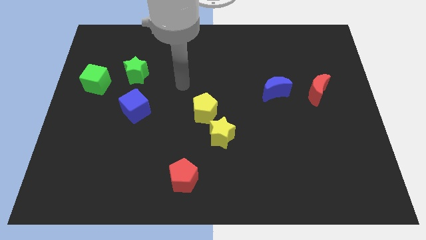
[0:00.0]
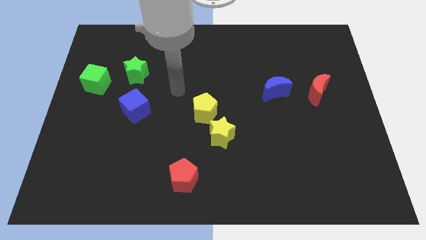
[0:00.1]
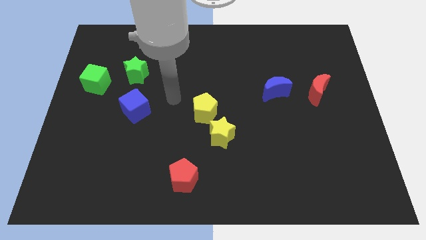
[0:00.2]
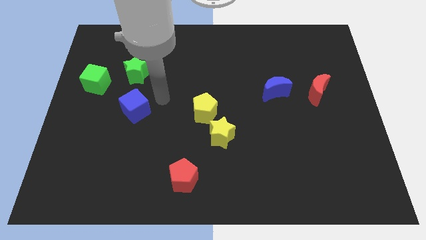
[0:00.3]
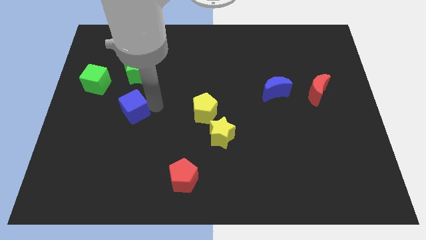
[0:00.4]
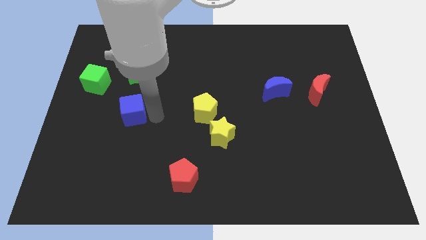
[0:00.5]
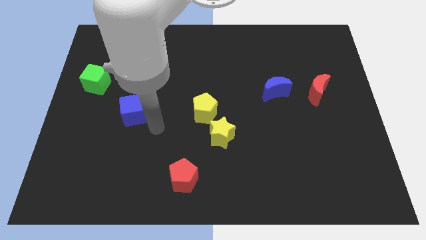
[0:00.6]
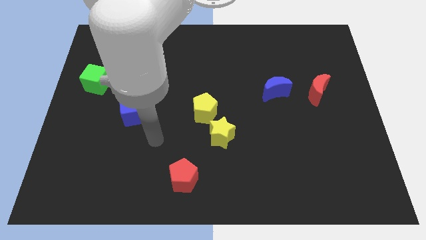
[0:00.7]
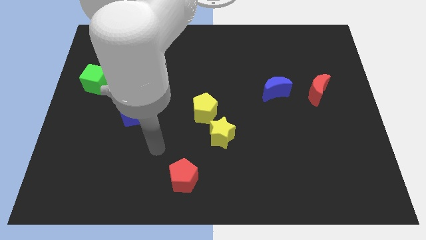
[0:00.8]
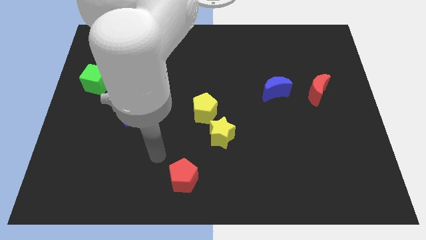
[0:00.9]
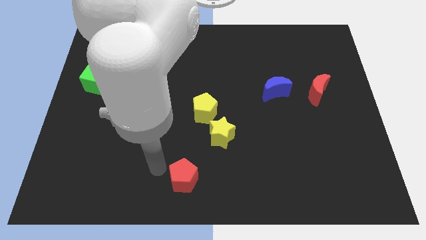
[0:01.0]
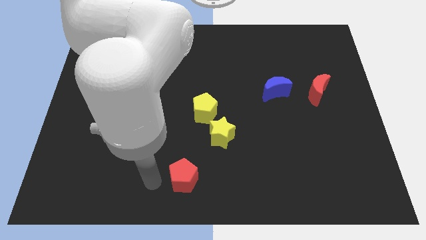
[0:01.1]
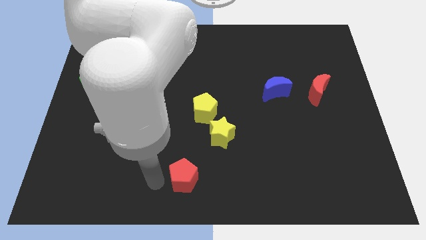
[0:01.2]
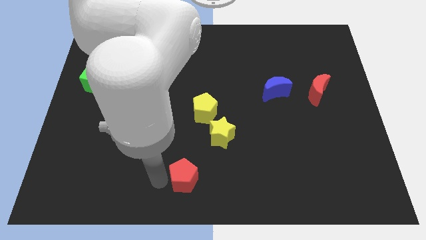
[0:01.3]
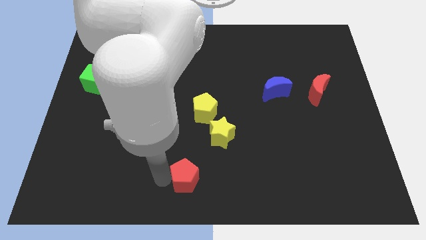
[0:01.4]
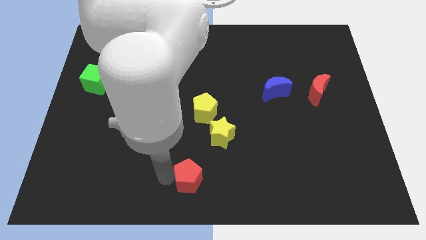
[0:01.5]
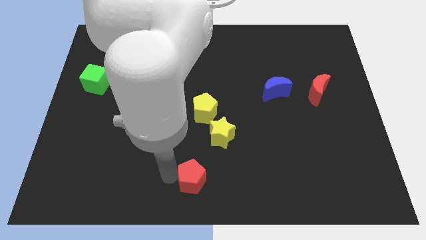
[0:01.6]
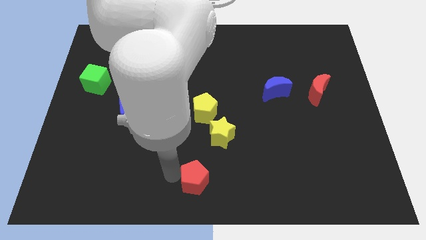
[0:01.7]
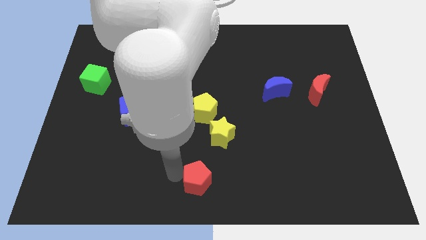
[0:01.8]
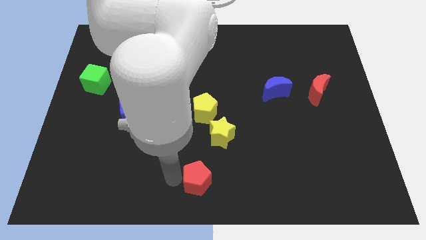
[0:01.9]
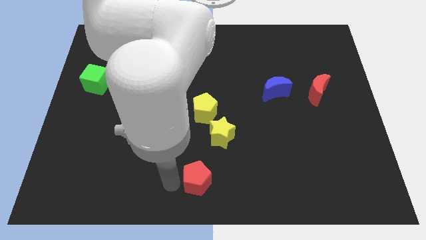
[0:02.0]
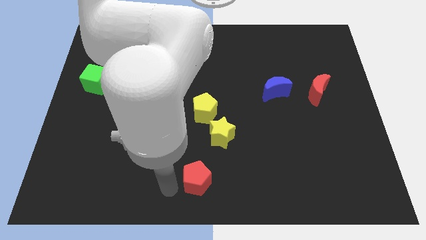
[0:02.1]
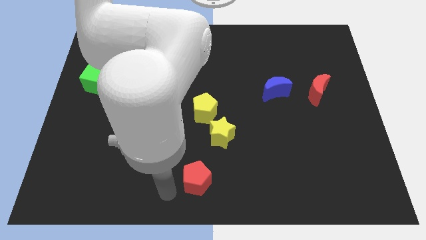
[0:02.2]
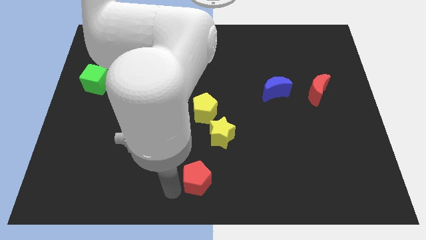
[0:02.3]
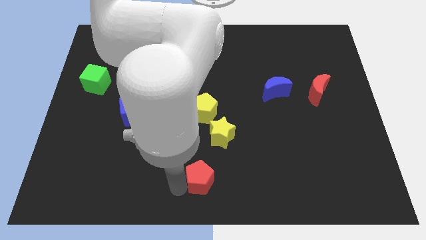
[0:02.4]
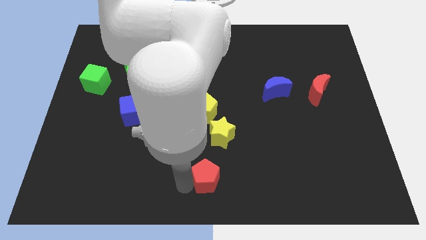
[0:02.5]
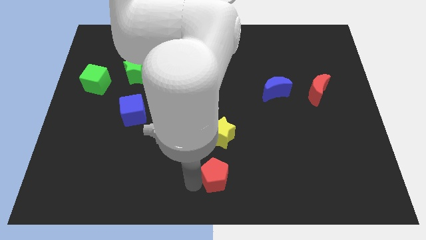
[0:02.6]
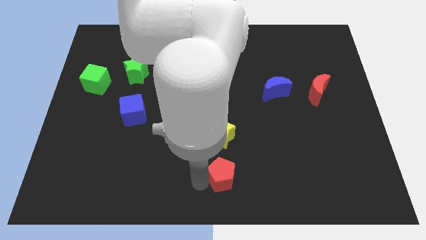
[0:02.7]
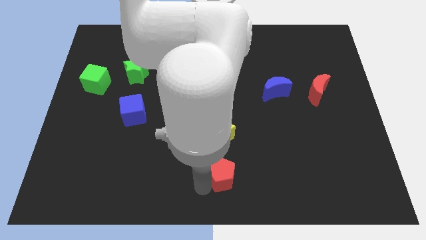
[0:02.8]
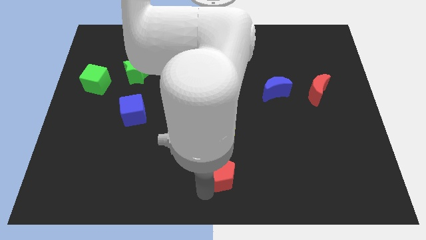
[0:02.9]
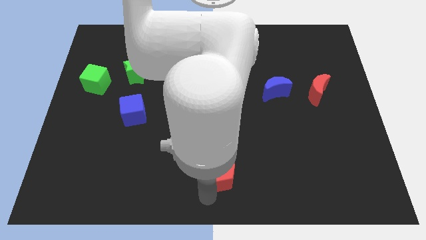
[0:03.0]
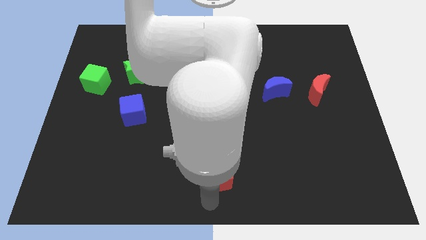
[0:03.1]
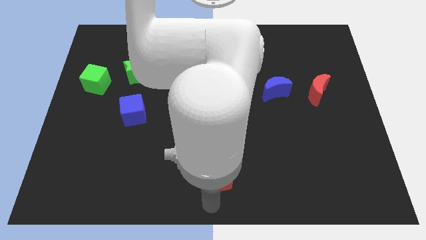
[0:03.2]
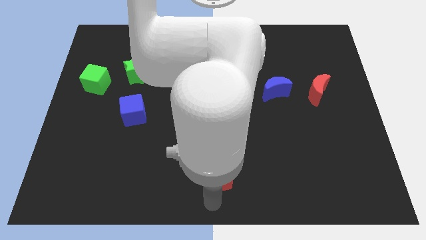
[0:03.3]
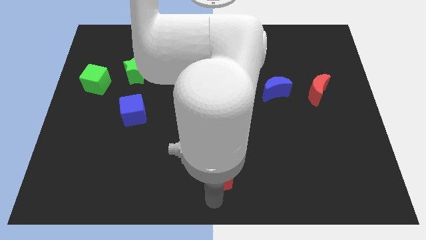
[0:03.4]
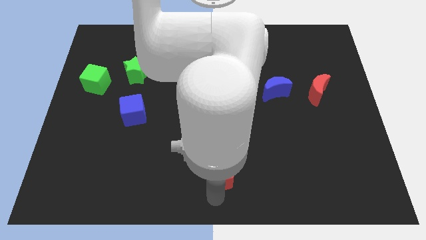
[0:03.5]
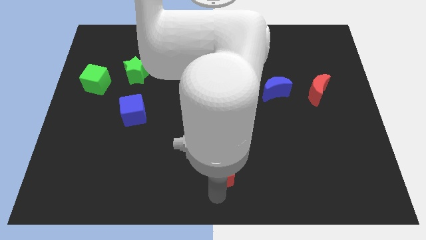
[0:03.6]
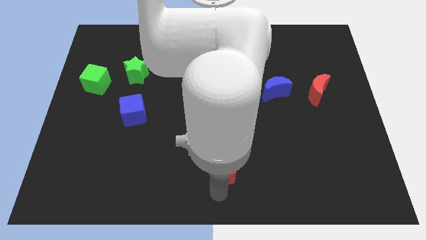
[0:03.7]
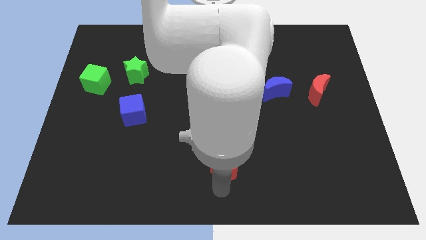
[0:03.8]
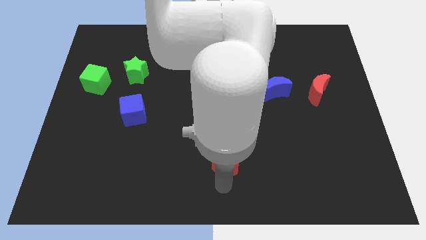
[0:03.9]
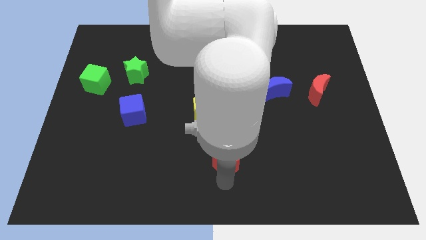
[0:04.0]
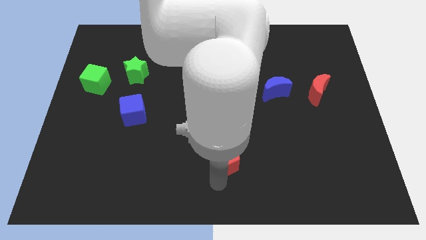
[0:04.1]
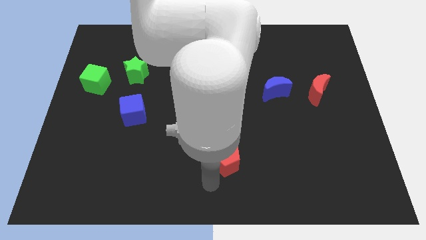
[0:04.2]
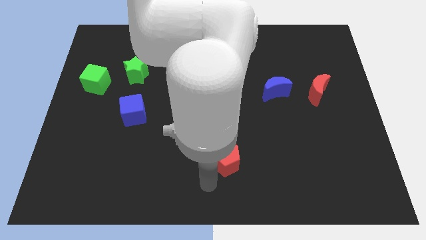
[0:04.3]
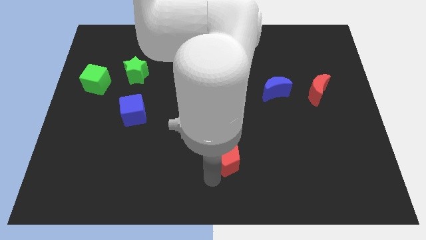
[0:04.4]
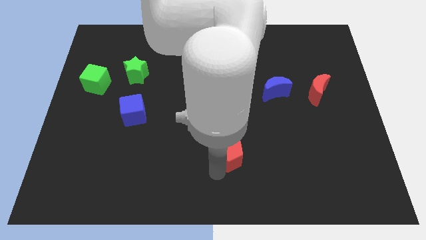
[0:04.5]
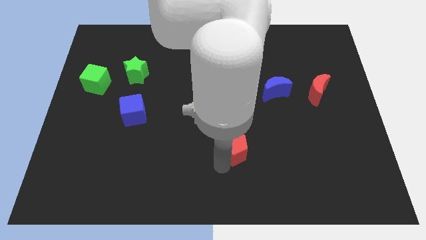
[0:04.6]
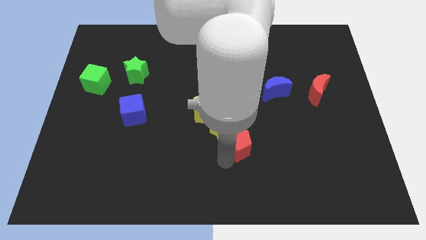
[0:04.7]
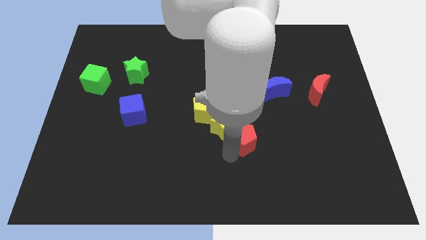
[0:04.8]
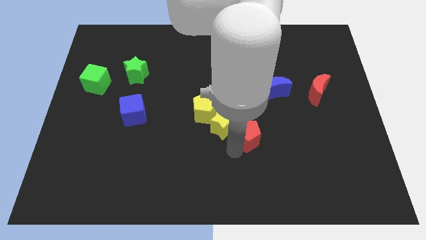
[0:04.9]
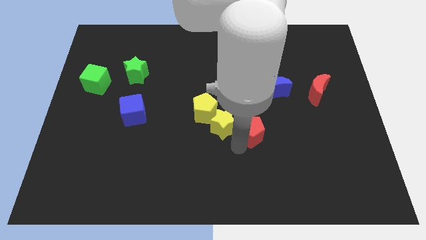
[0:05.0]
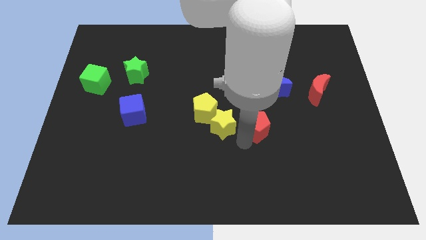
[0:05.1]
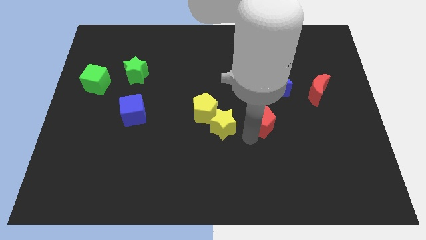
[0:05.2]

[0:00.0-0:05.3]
push the red pentagon to the bottom left side of the blue moon

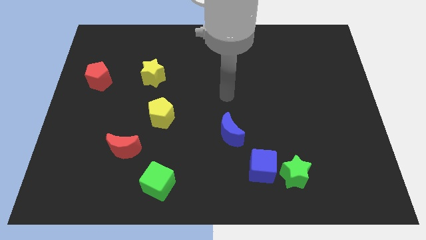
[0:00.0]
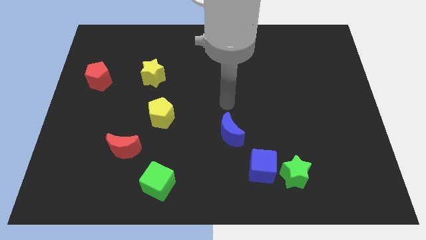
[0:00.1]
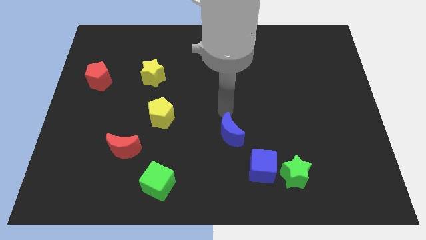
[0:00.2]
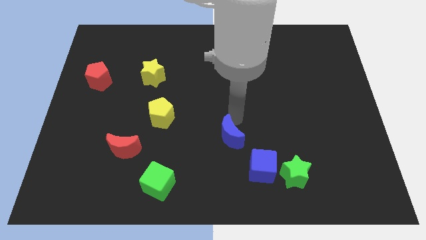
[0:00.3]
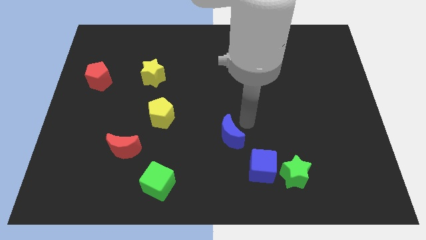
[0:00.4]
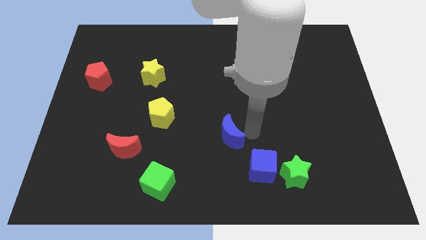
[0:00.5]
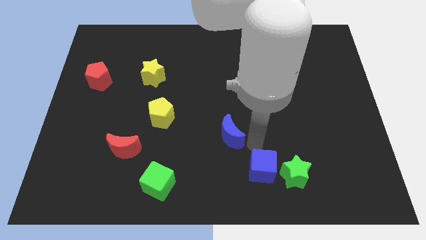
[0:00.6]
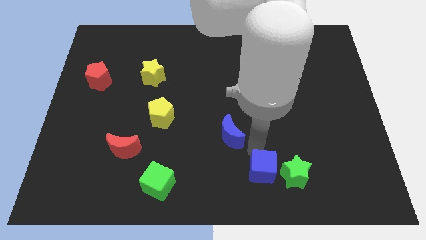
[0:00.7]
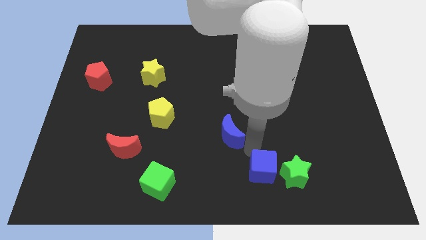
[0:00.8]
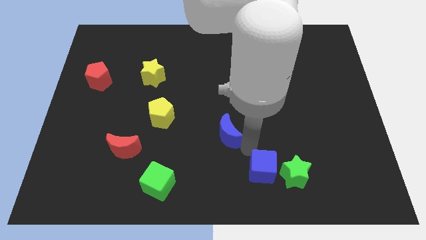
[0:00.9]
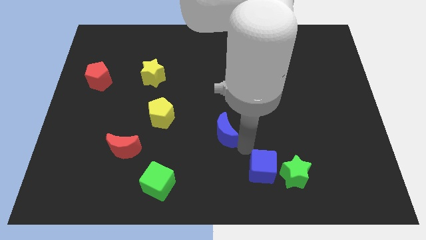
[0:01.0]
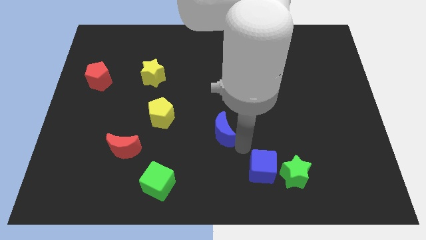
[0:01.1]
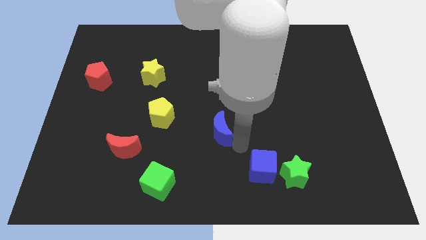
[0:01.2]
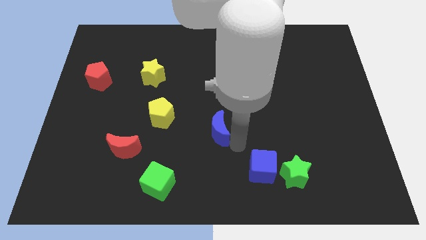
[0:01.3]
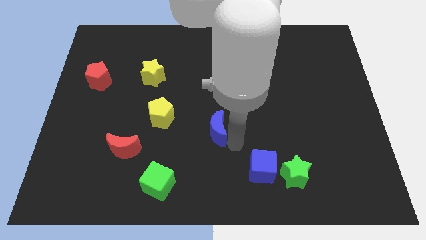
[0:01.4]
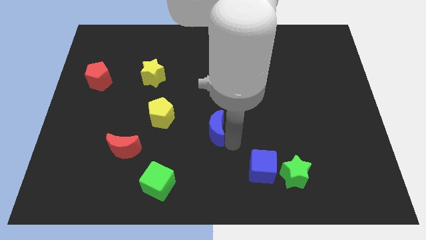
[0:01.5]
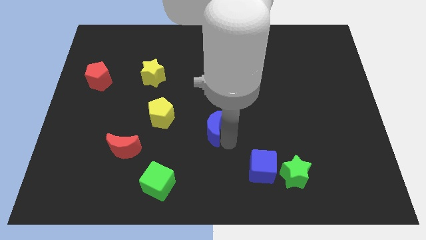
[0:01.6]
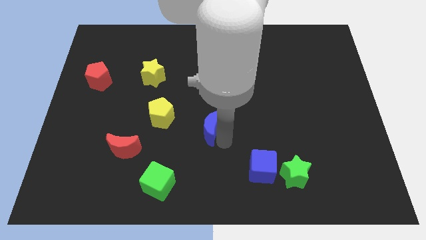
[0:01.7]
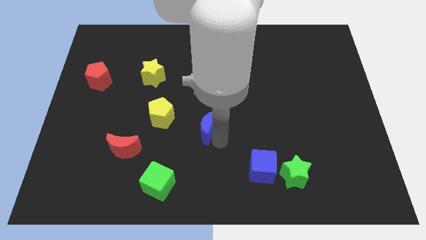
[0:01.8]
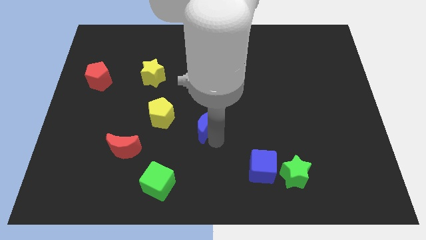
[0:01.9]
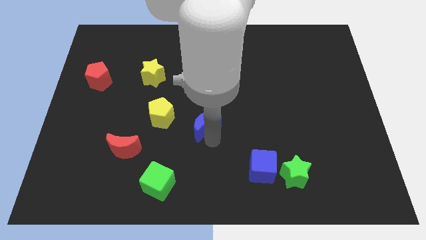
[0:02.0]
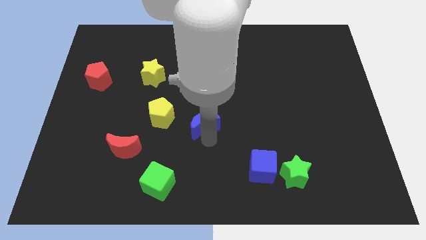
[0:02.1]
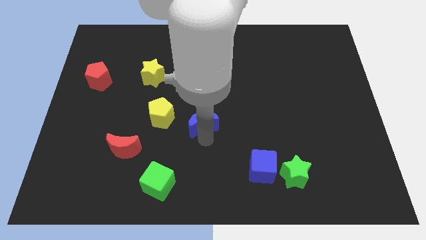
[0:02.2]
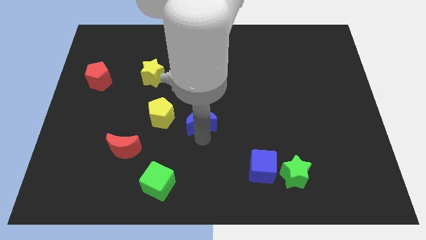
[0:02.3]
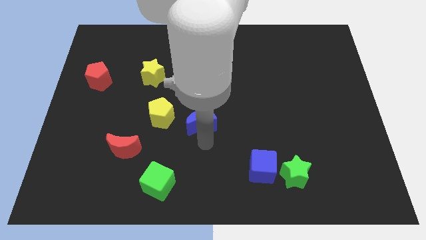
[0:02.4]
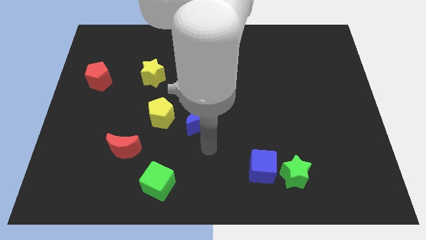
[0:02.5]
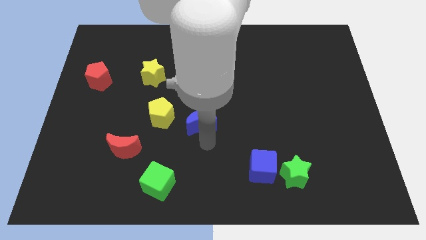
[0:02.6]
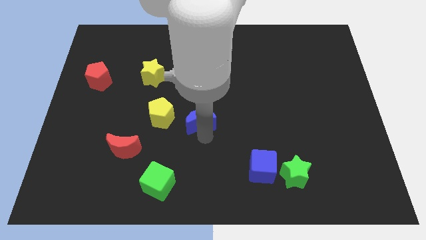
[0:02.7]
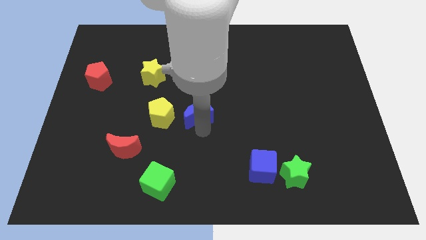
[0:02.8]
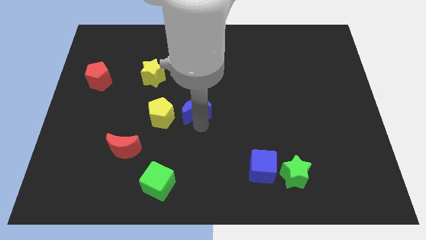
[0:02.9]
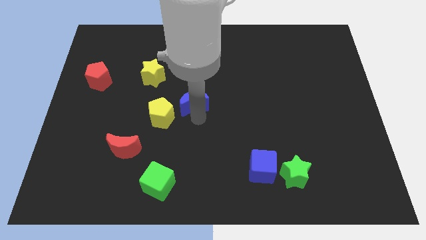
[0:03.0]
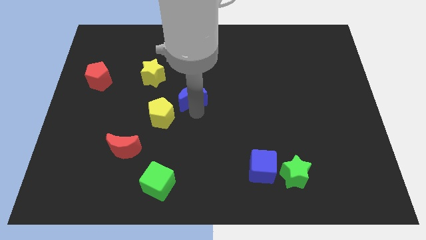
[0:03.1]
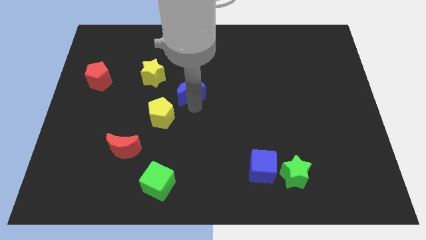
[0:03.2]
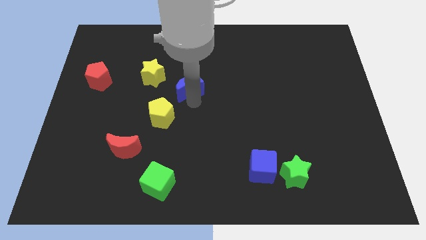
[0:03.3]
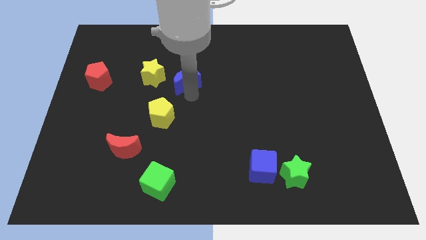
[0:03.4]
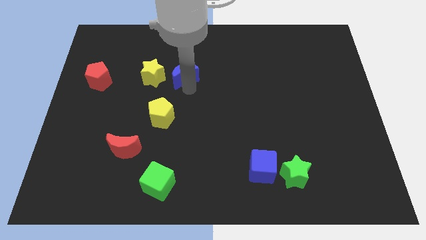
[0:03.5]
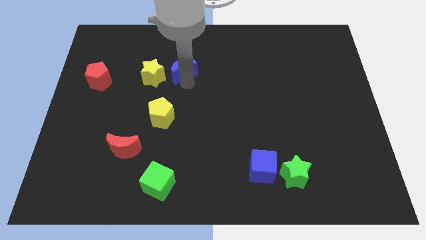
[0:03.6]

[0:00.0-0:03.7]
slide the blue moon to the top right of the yellow star
